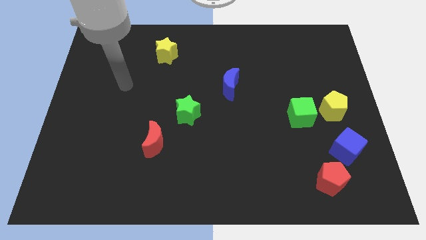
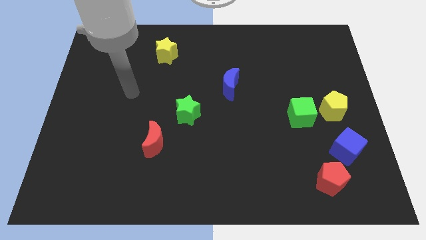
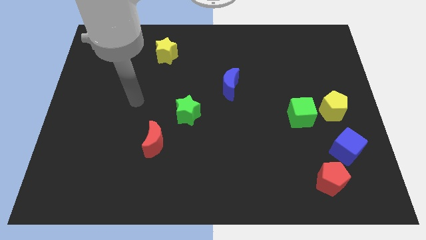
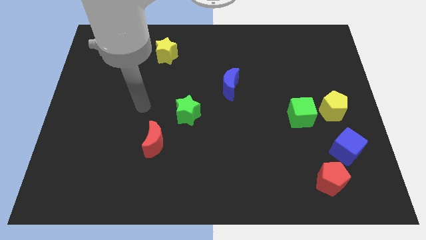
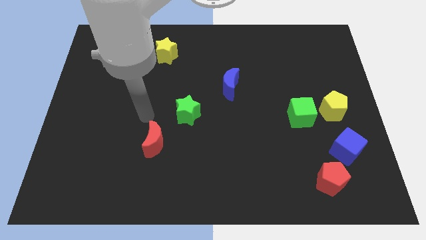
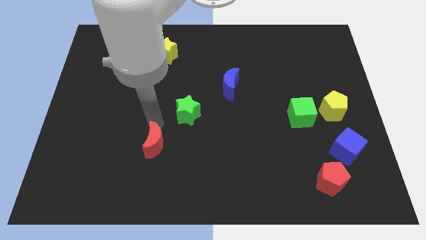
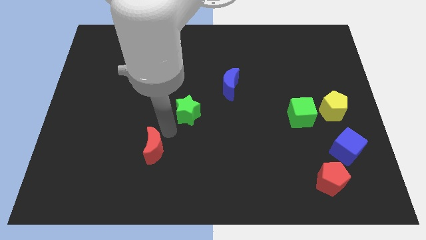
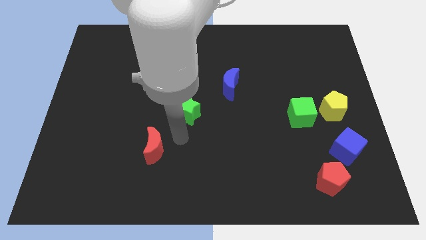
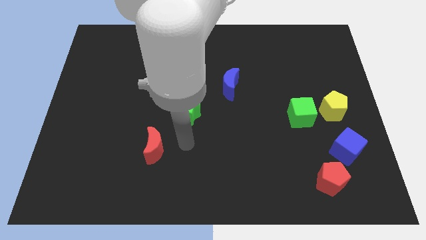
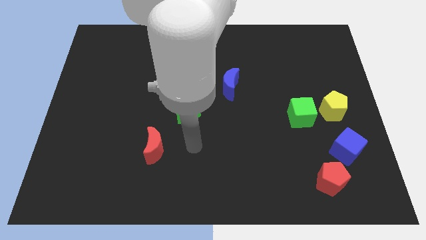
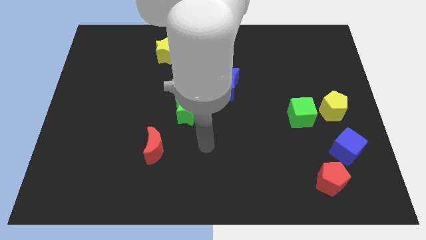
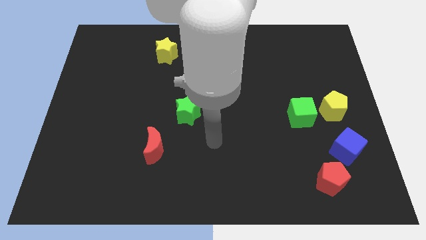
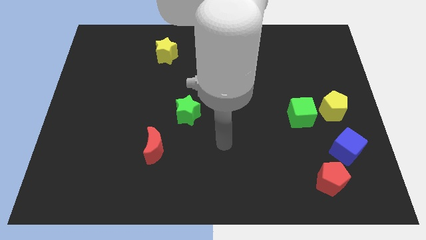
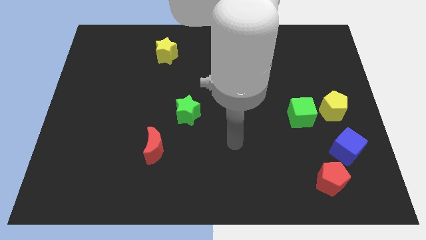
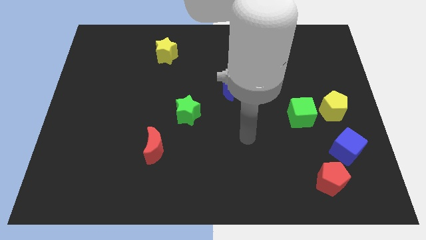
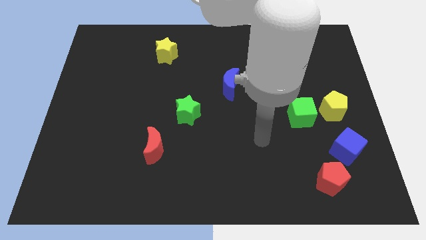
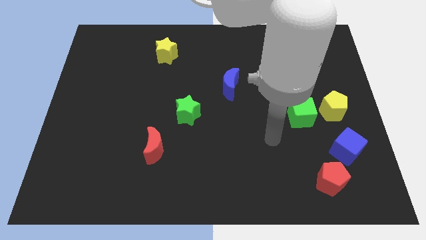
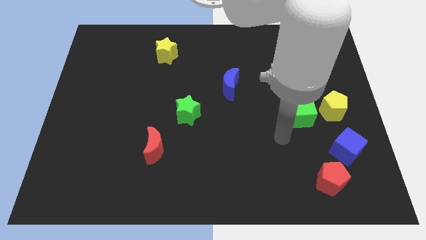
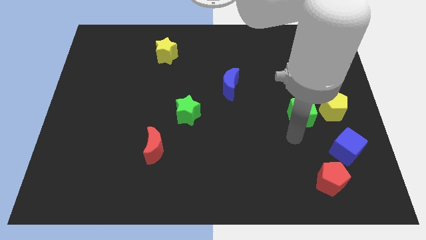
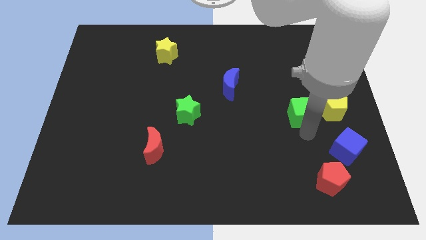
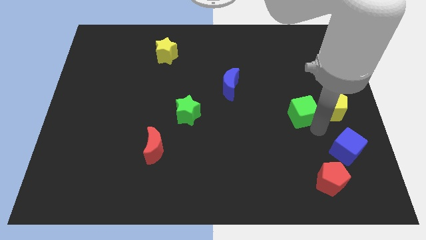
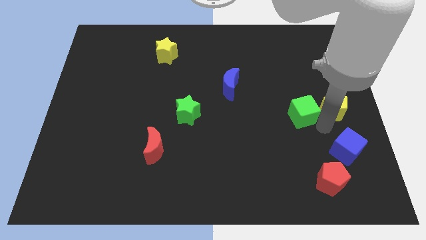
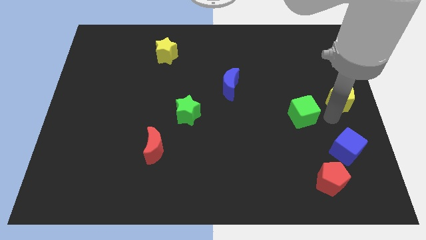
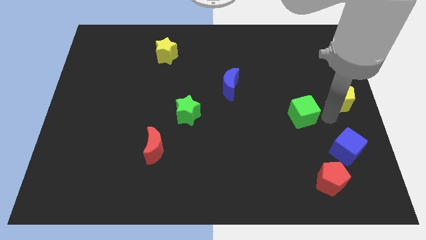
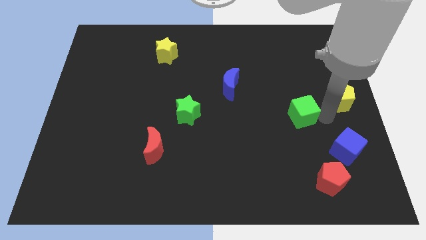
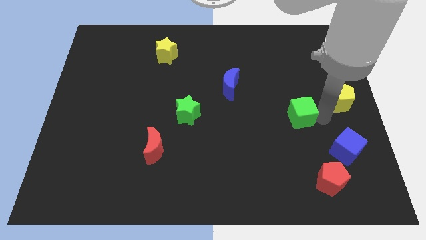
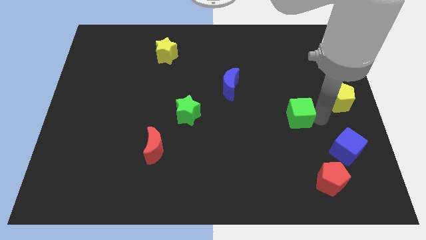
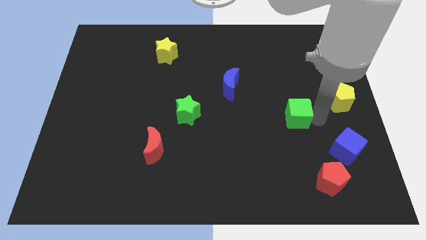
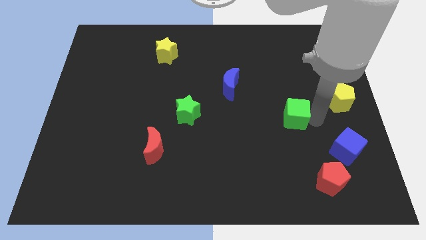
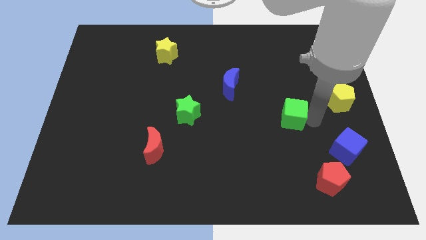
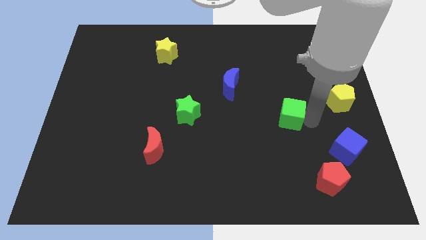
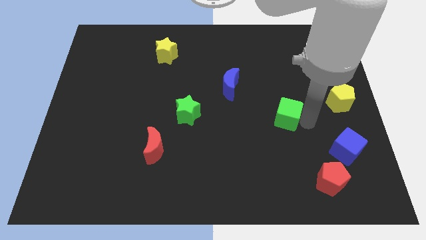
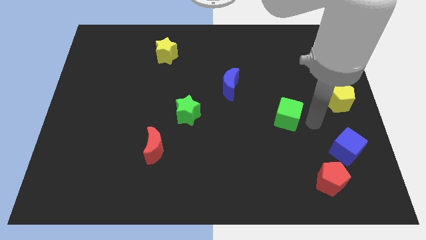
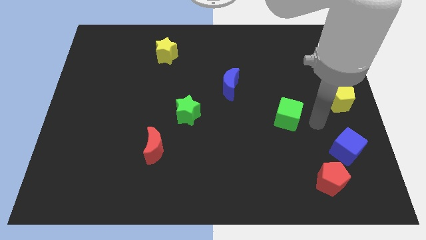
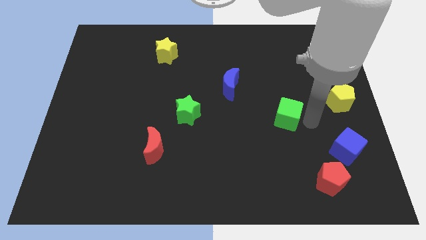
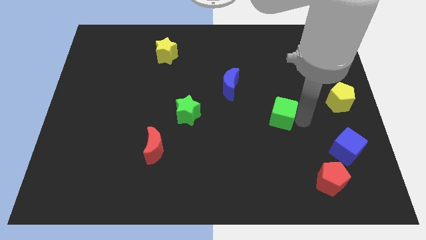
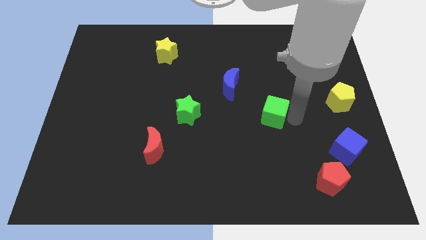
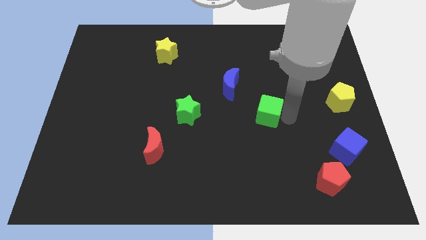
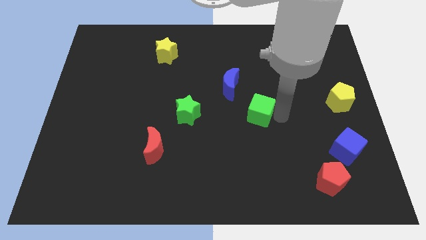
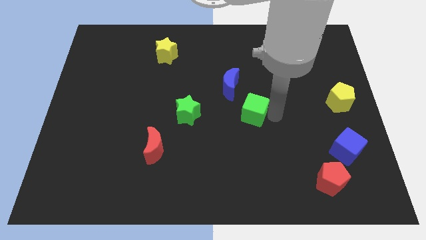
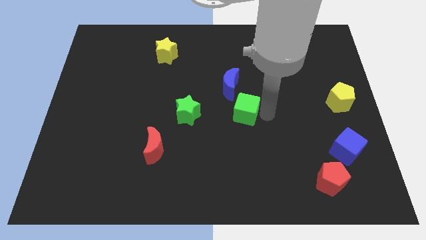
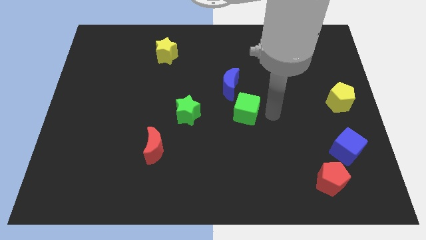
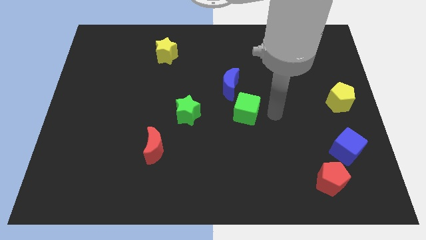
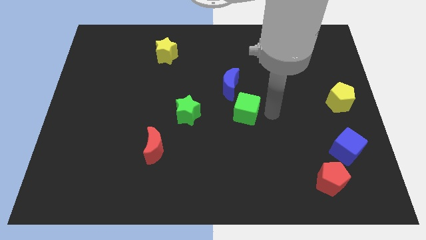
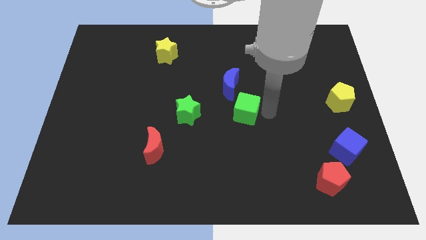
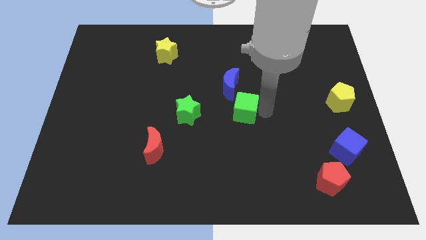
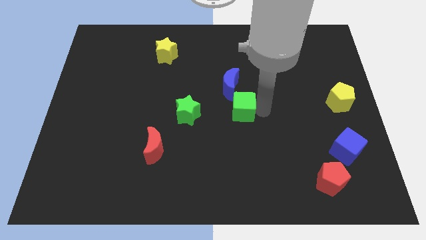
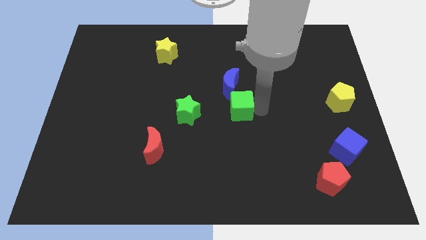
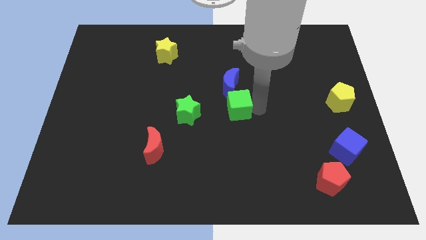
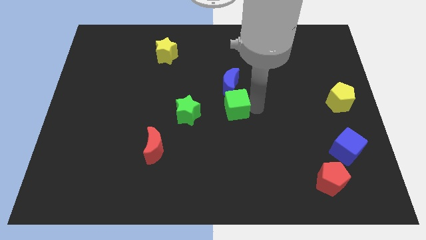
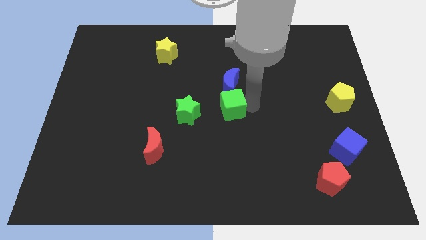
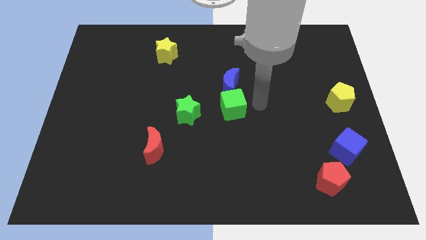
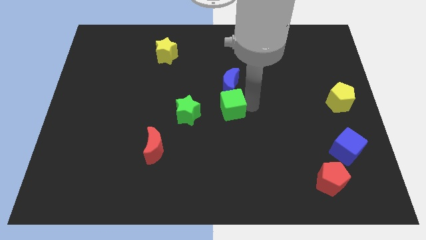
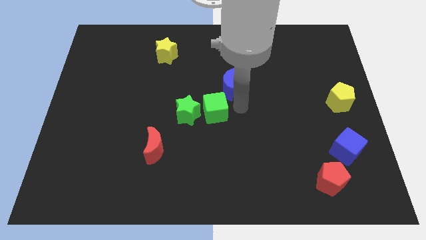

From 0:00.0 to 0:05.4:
slide the green cube to the green star

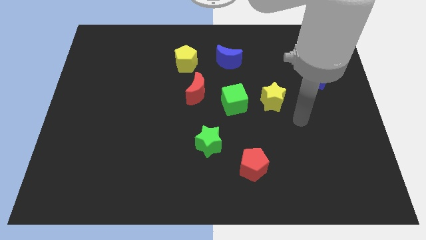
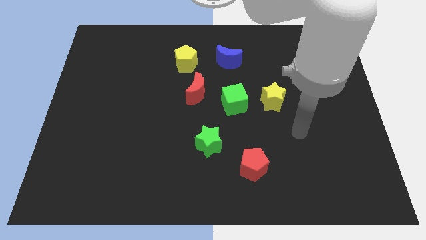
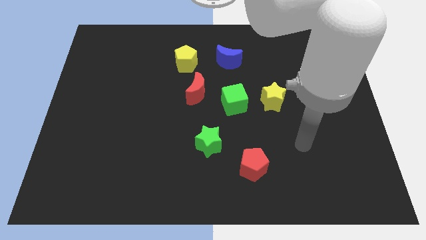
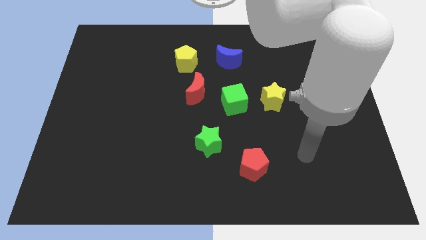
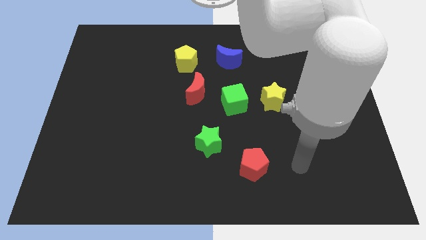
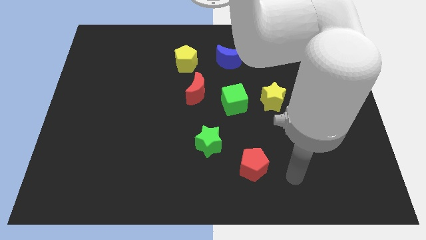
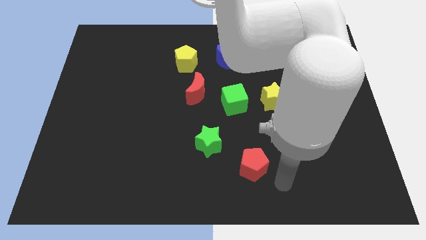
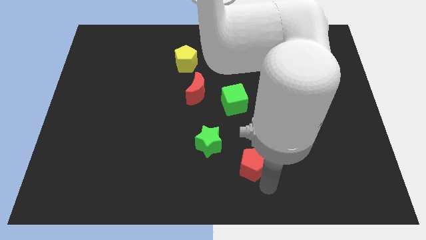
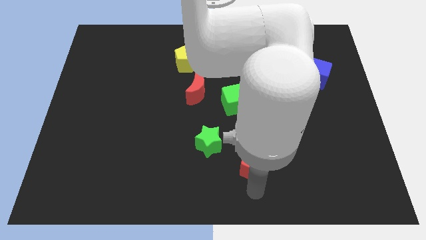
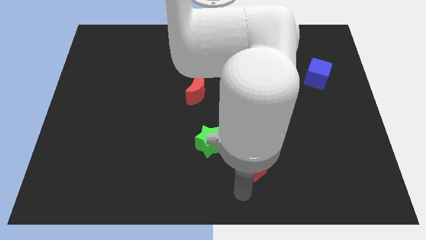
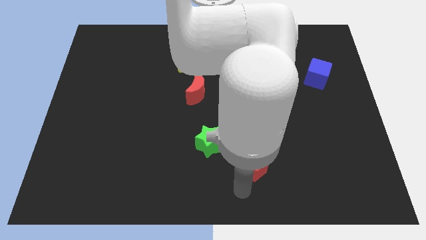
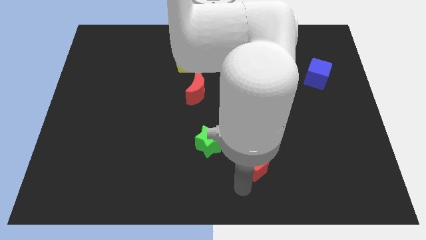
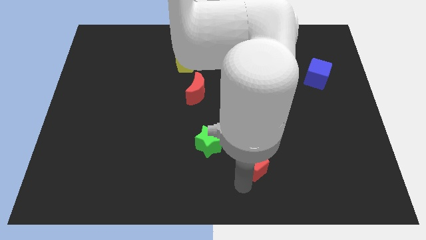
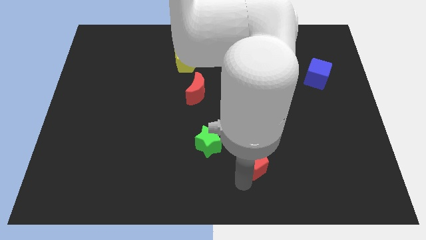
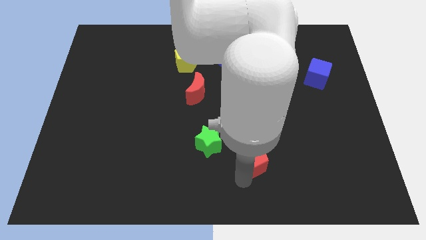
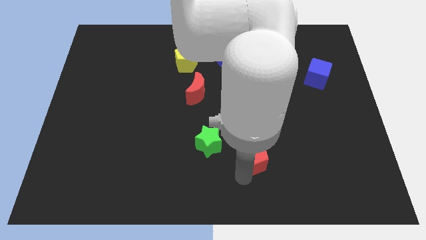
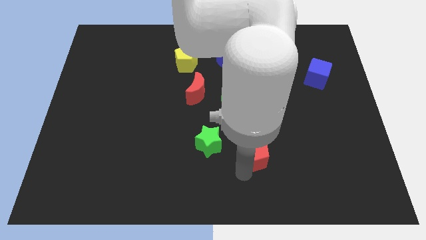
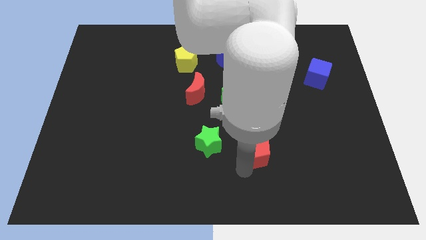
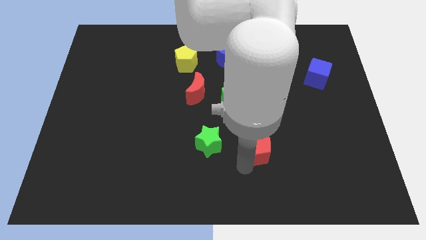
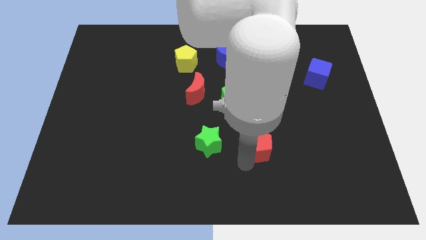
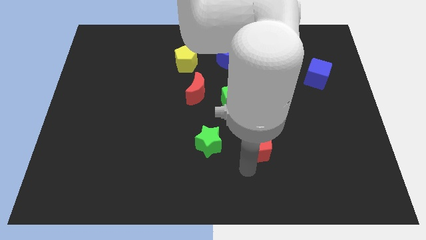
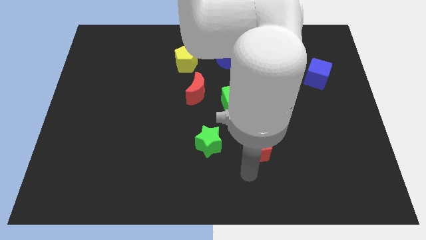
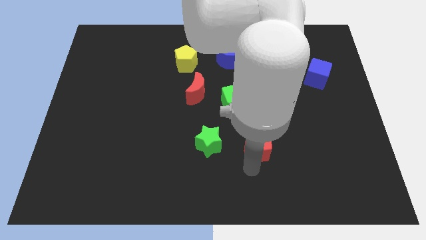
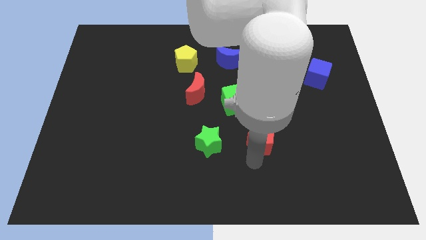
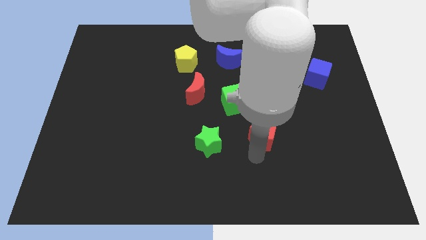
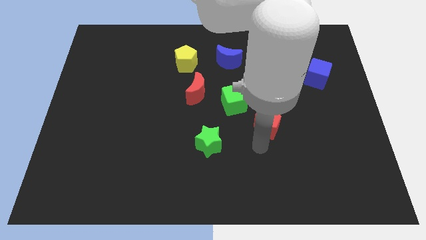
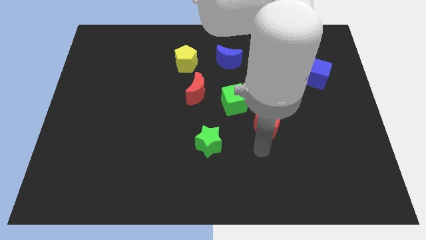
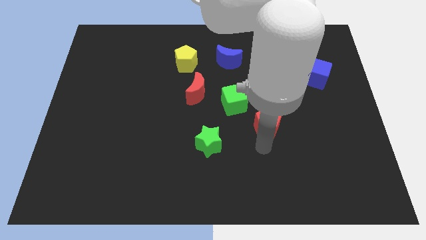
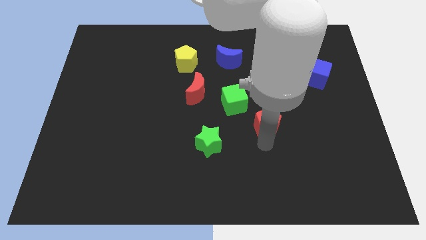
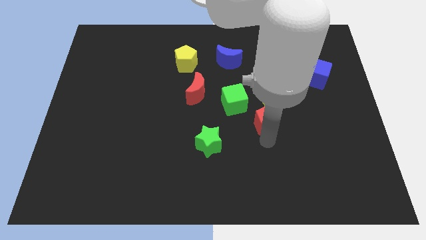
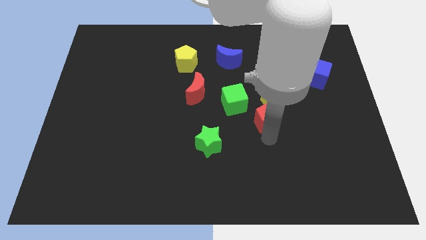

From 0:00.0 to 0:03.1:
push the red pentagon to the yellow star
